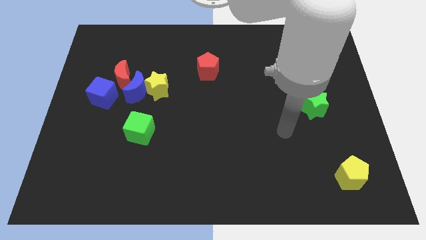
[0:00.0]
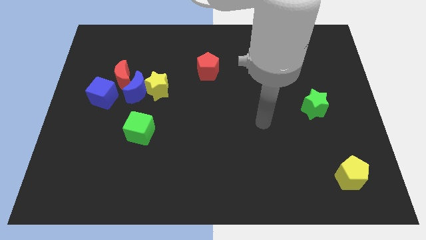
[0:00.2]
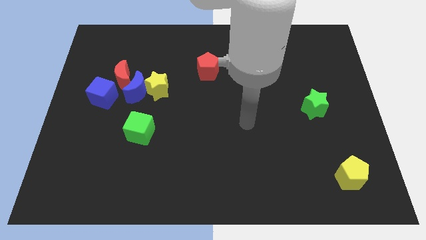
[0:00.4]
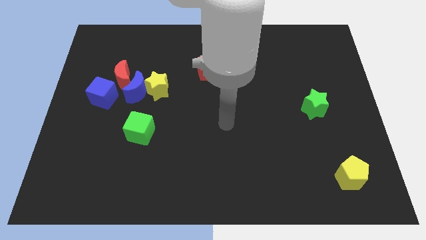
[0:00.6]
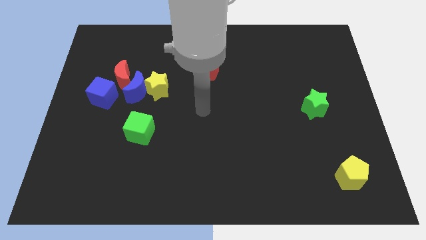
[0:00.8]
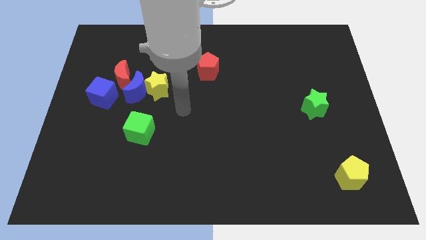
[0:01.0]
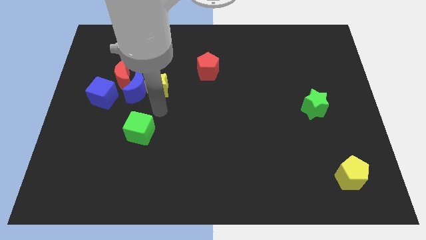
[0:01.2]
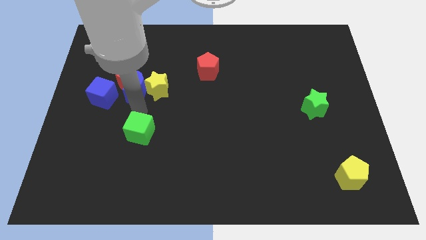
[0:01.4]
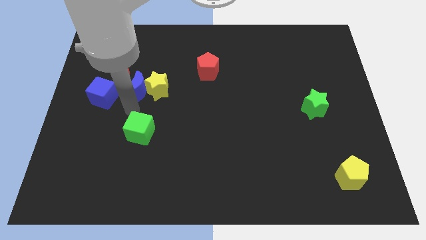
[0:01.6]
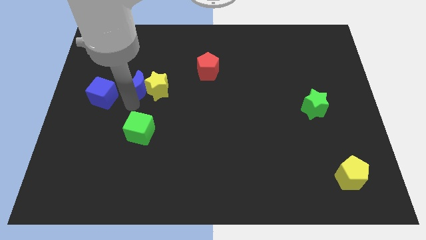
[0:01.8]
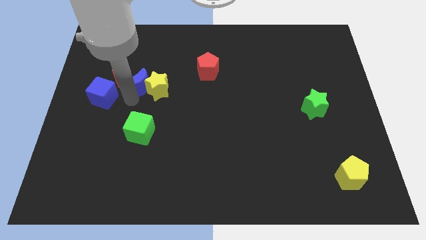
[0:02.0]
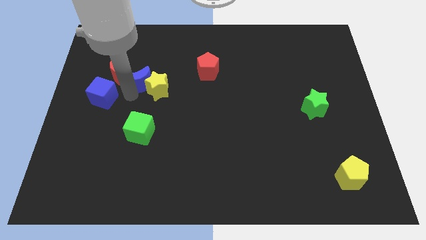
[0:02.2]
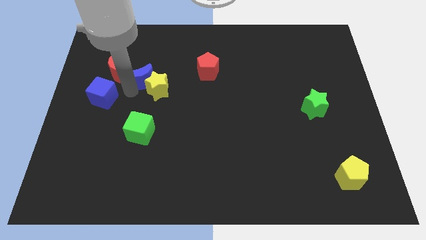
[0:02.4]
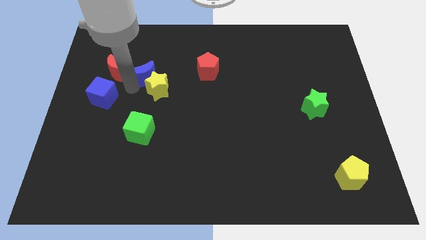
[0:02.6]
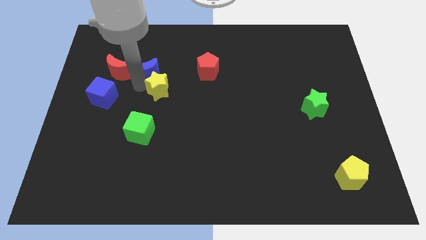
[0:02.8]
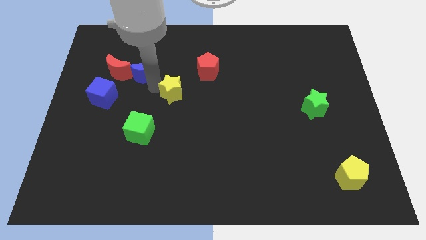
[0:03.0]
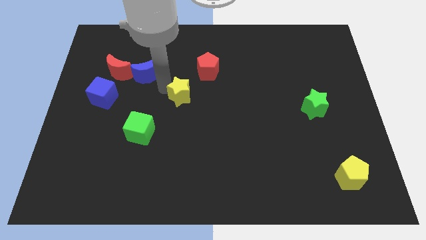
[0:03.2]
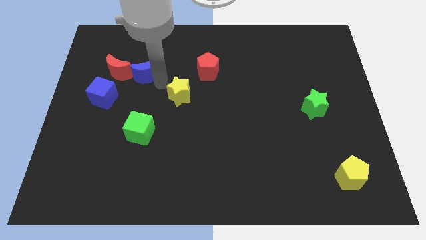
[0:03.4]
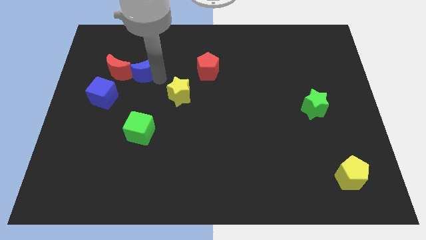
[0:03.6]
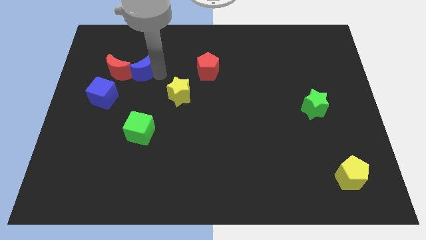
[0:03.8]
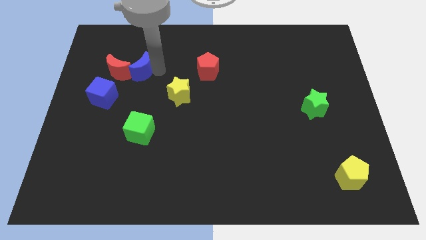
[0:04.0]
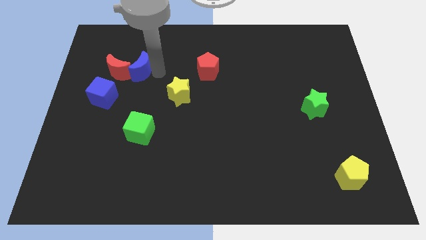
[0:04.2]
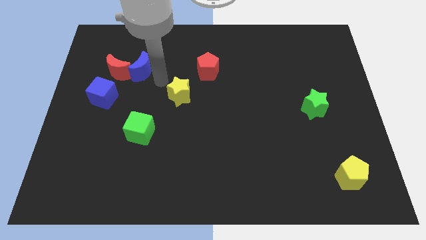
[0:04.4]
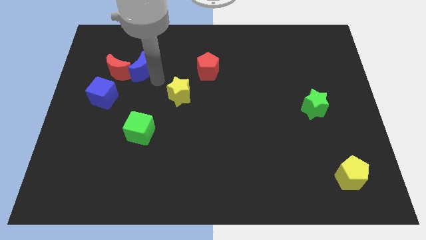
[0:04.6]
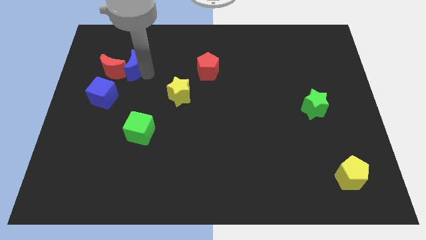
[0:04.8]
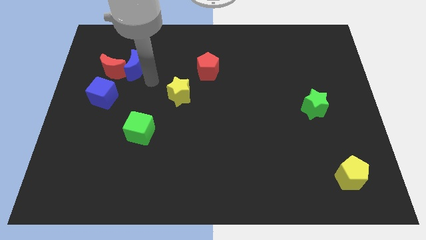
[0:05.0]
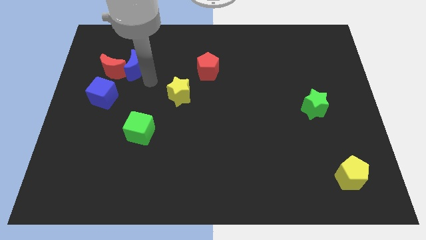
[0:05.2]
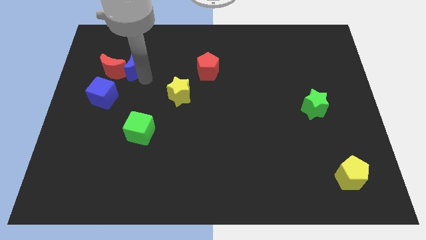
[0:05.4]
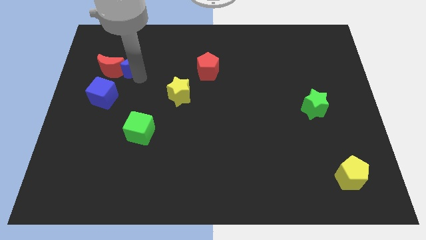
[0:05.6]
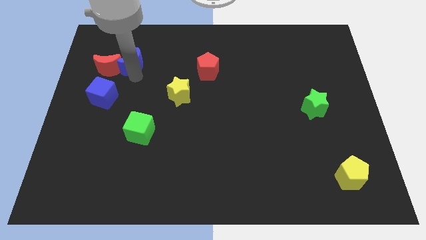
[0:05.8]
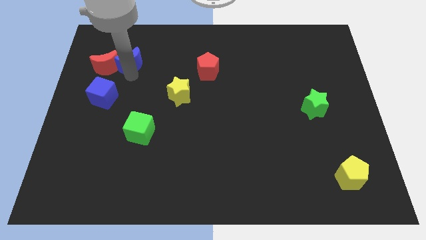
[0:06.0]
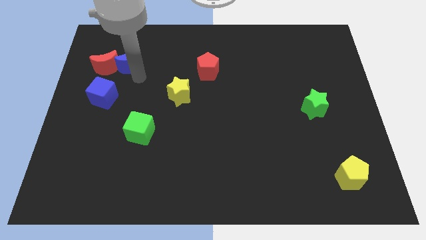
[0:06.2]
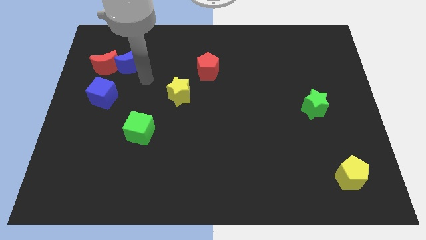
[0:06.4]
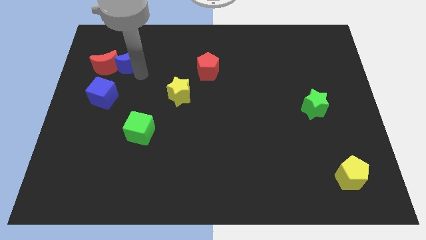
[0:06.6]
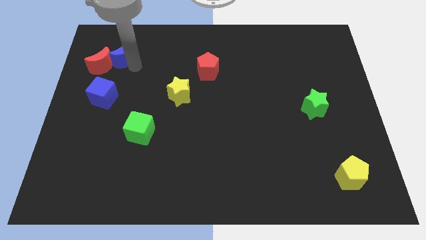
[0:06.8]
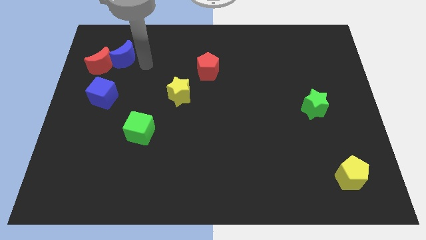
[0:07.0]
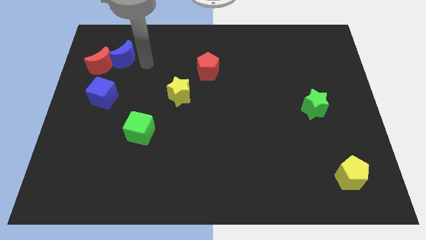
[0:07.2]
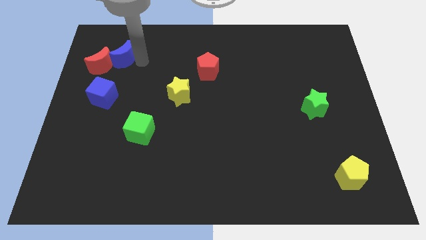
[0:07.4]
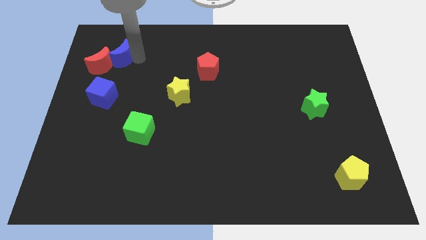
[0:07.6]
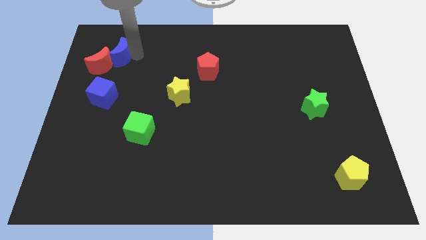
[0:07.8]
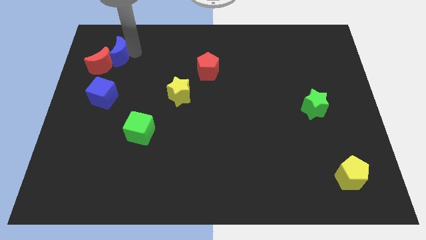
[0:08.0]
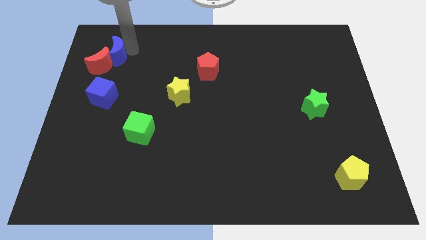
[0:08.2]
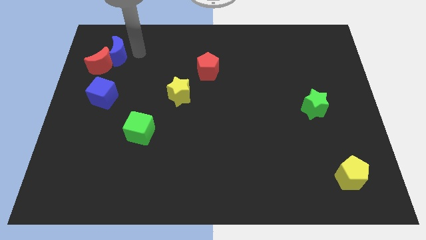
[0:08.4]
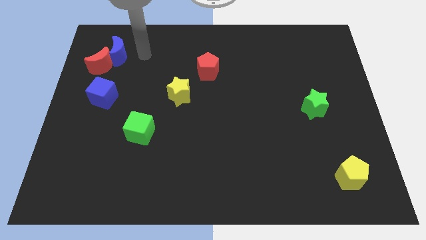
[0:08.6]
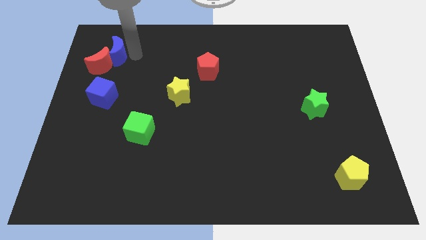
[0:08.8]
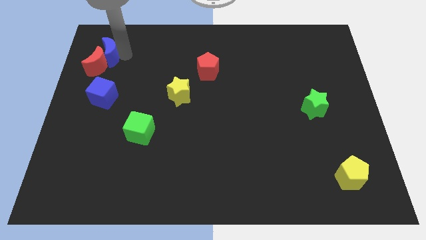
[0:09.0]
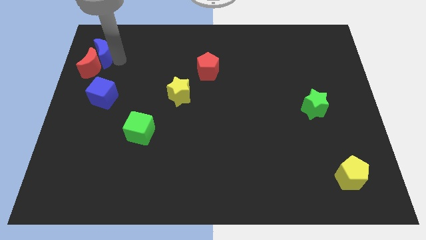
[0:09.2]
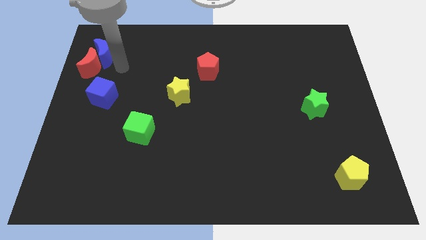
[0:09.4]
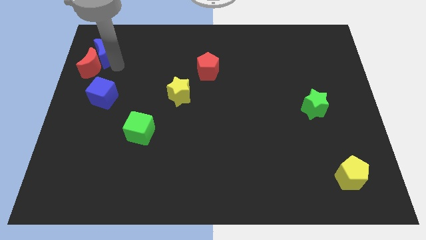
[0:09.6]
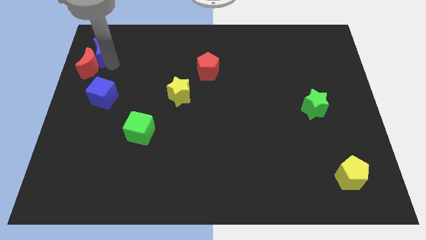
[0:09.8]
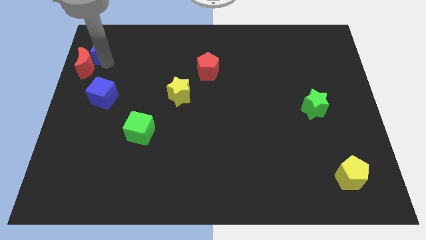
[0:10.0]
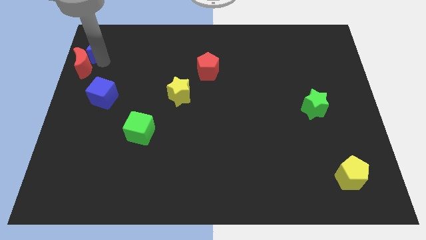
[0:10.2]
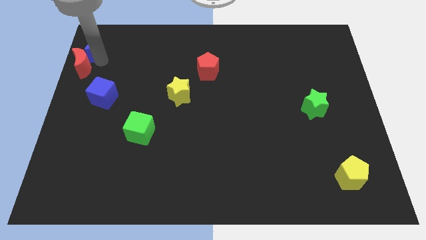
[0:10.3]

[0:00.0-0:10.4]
push the blue moon to the top left of the board

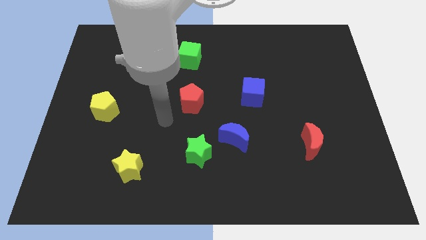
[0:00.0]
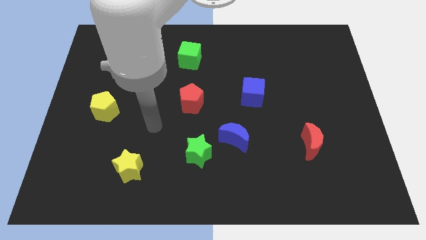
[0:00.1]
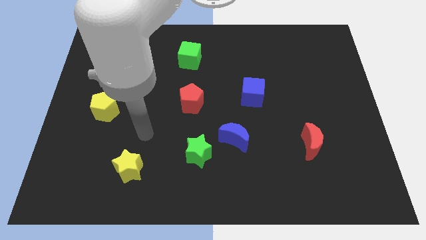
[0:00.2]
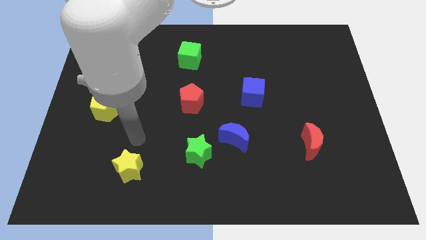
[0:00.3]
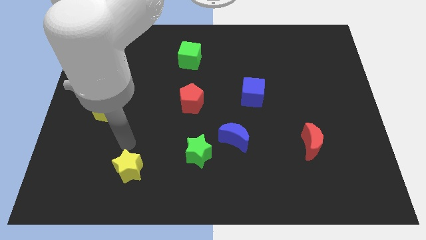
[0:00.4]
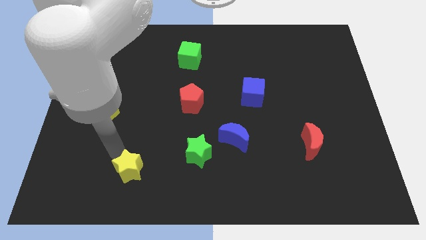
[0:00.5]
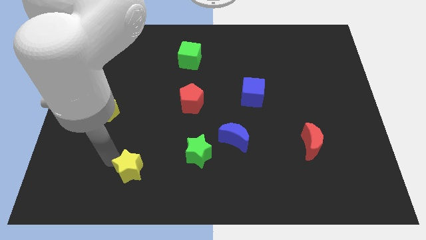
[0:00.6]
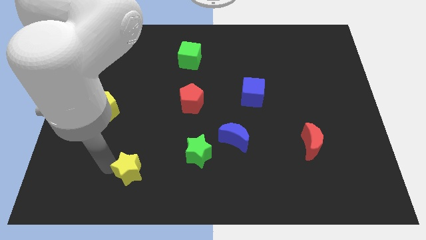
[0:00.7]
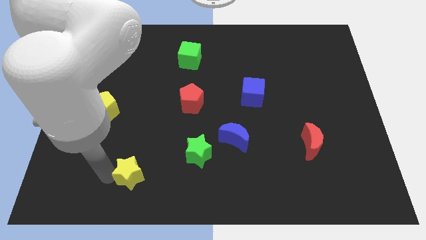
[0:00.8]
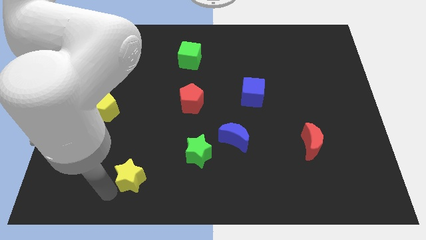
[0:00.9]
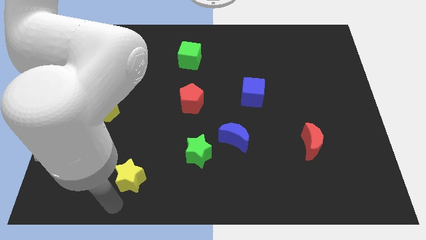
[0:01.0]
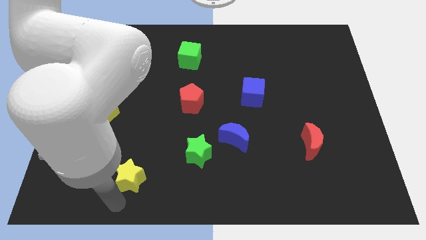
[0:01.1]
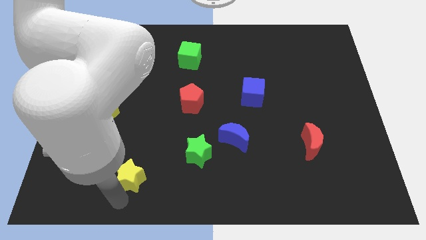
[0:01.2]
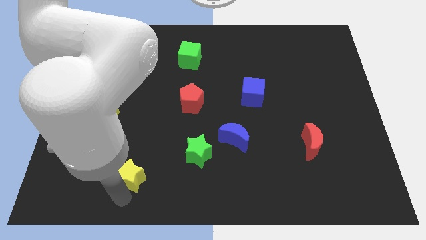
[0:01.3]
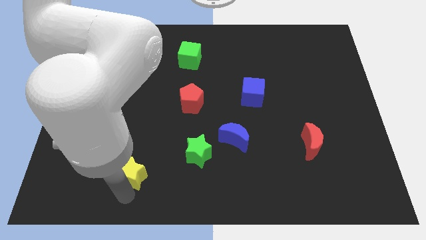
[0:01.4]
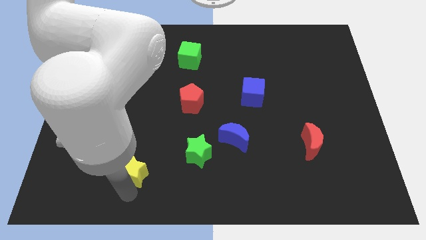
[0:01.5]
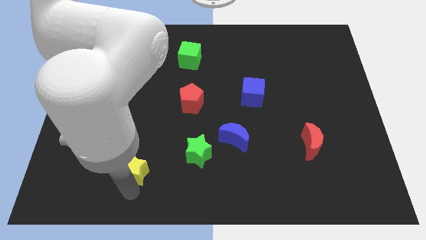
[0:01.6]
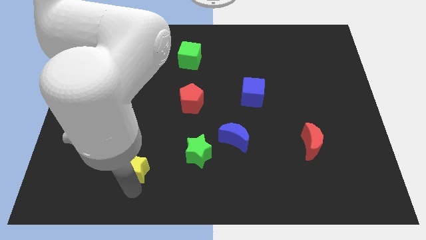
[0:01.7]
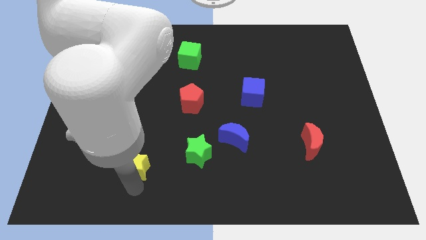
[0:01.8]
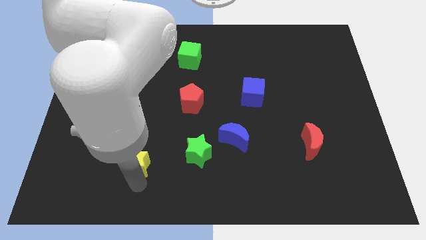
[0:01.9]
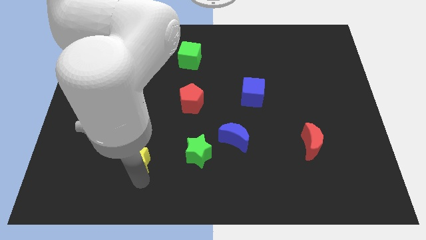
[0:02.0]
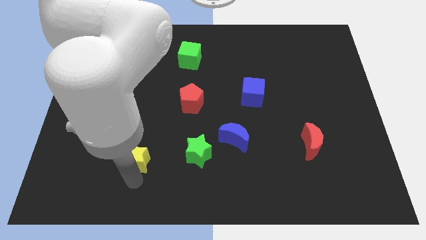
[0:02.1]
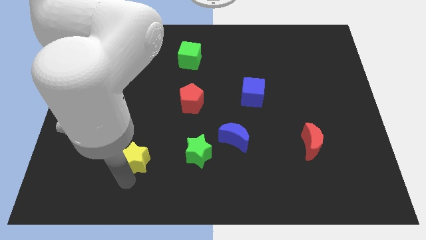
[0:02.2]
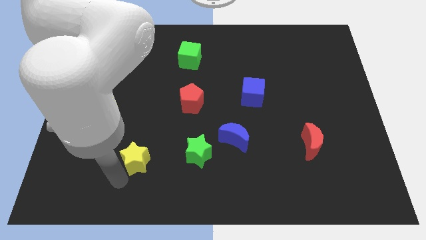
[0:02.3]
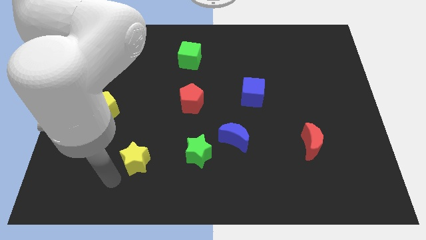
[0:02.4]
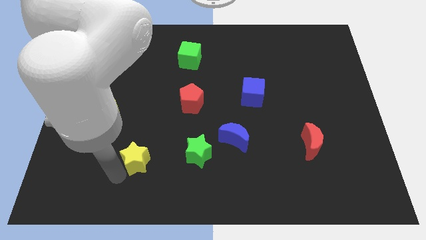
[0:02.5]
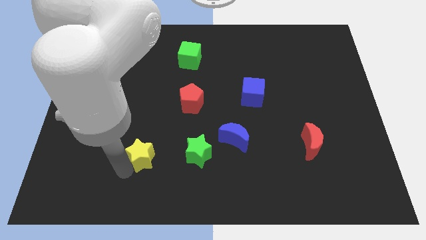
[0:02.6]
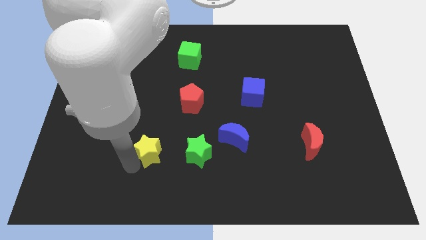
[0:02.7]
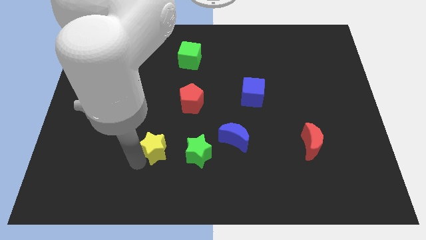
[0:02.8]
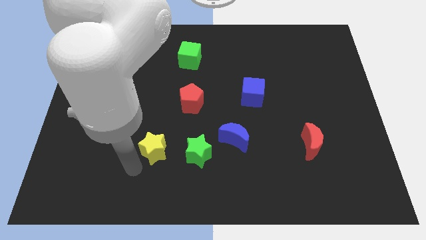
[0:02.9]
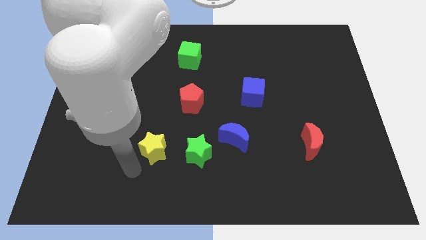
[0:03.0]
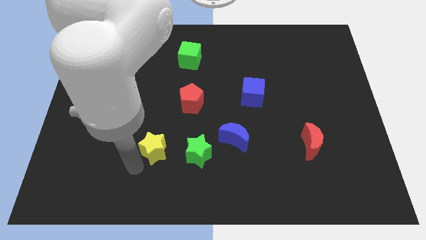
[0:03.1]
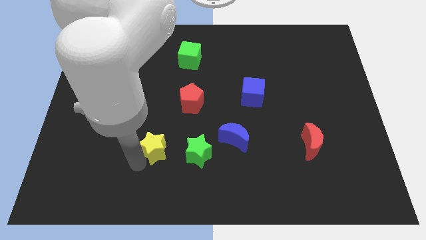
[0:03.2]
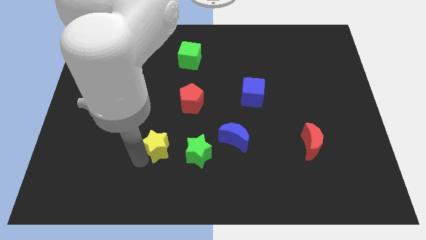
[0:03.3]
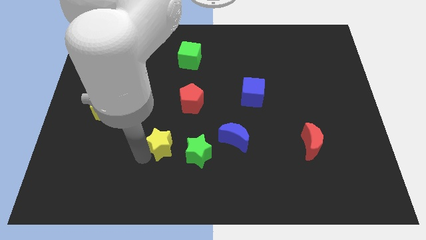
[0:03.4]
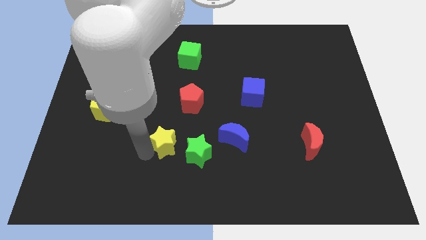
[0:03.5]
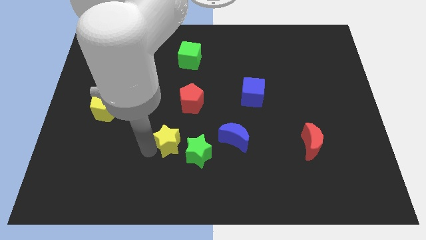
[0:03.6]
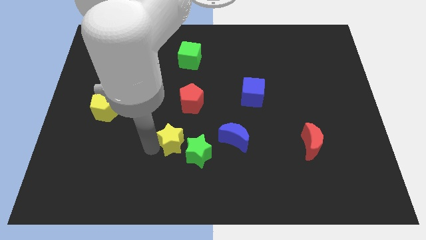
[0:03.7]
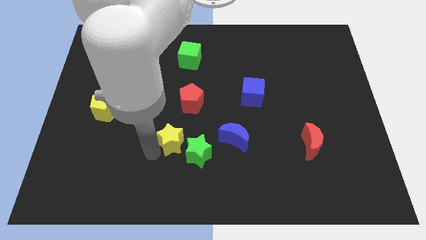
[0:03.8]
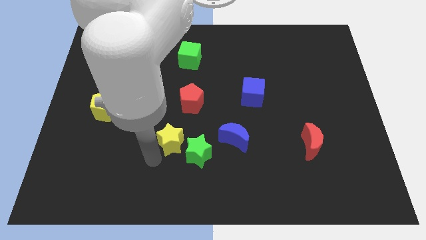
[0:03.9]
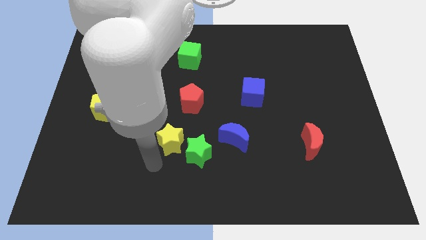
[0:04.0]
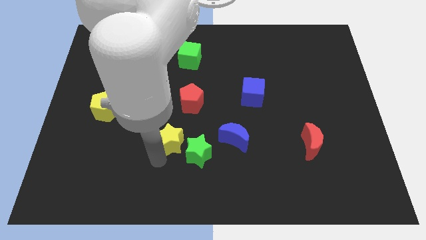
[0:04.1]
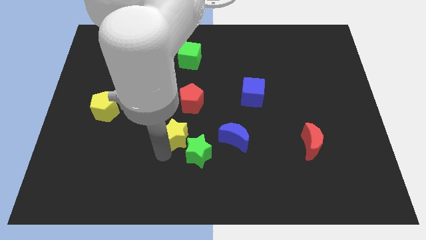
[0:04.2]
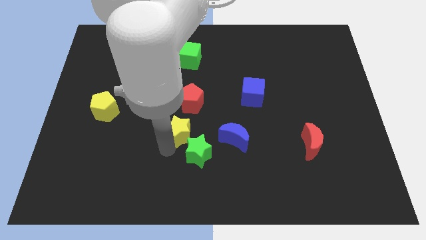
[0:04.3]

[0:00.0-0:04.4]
push the yellow star to the middle of the board
